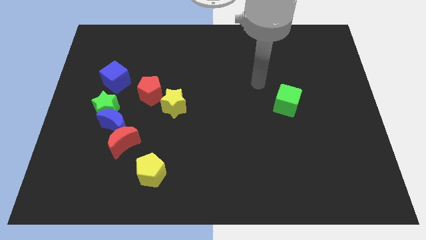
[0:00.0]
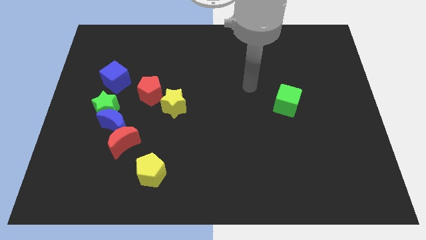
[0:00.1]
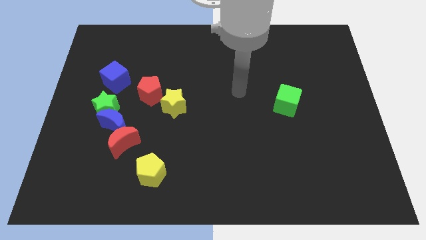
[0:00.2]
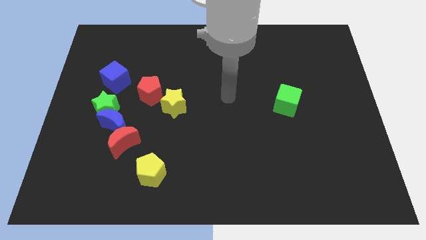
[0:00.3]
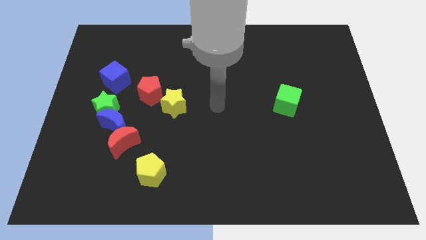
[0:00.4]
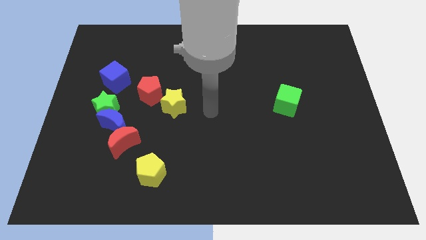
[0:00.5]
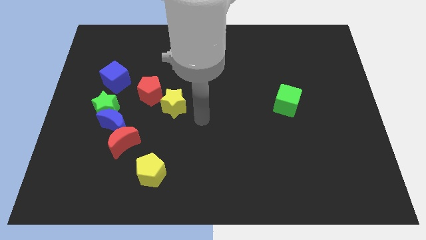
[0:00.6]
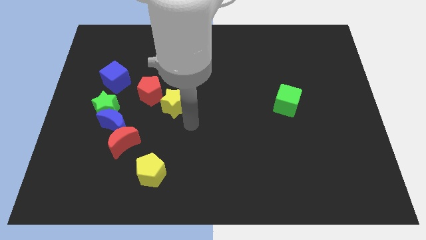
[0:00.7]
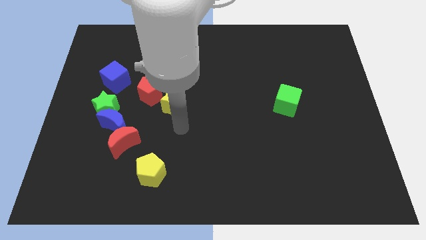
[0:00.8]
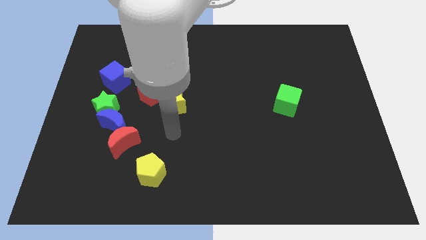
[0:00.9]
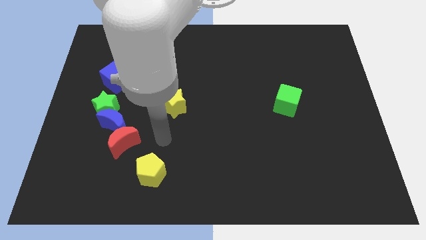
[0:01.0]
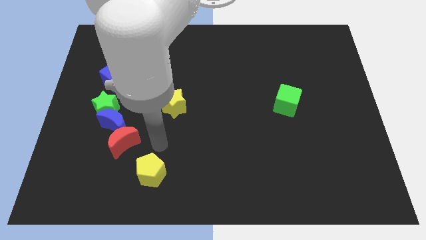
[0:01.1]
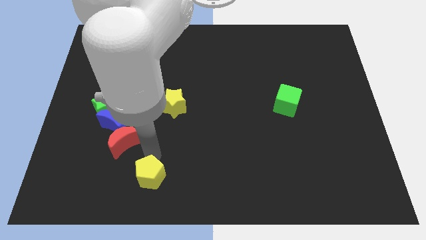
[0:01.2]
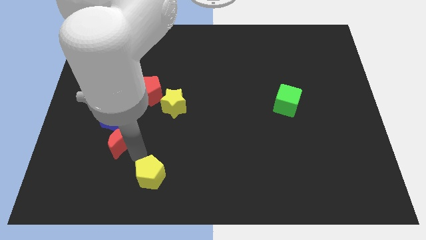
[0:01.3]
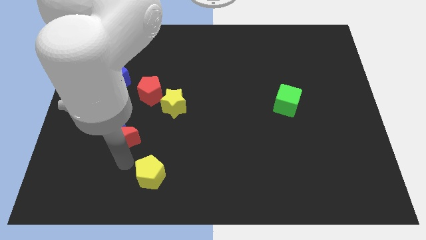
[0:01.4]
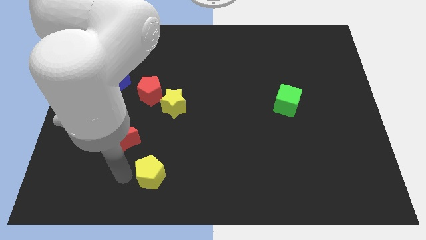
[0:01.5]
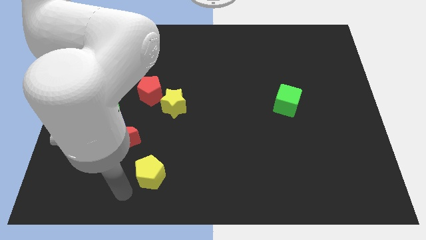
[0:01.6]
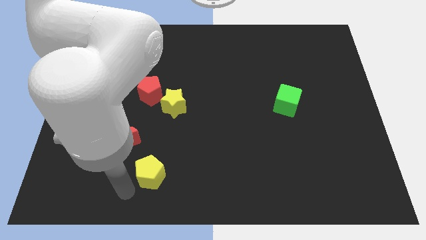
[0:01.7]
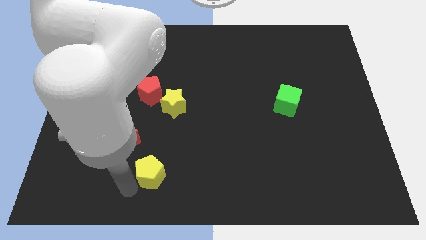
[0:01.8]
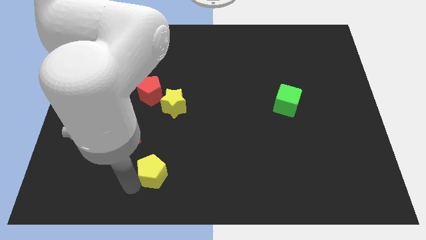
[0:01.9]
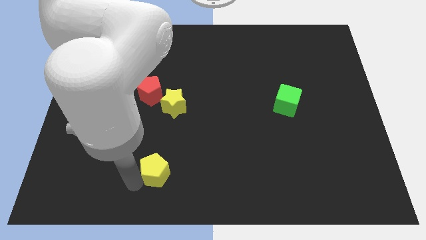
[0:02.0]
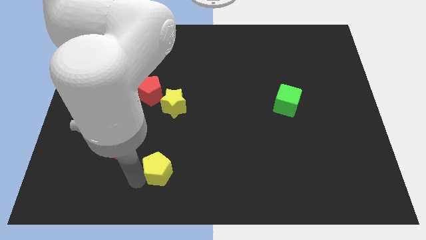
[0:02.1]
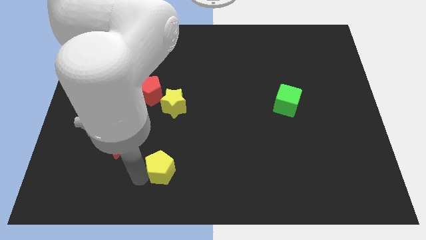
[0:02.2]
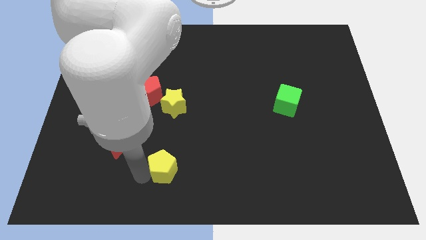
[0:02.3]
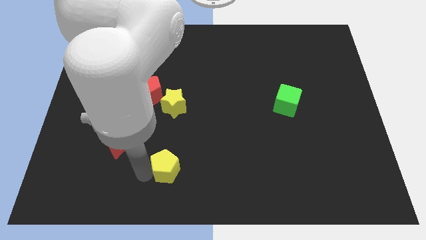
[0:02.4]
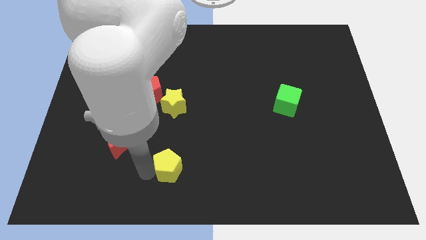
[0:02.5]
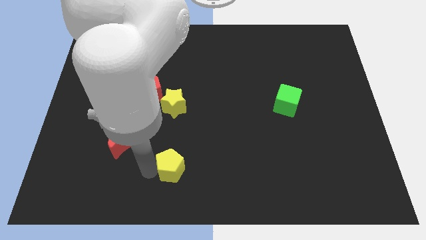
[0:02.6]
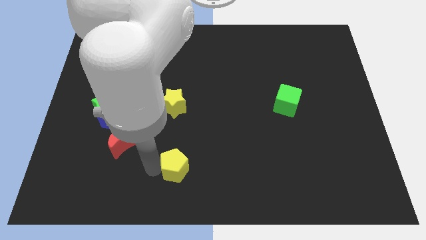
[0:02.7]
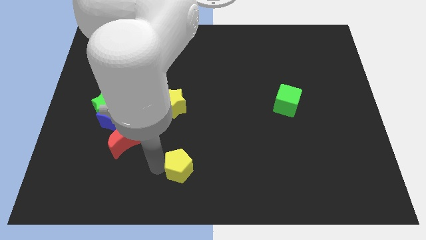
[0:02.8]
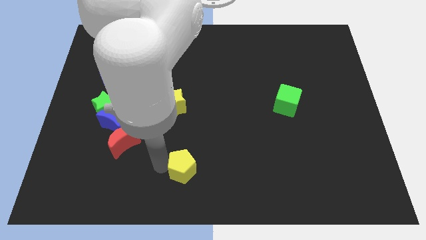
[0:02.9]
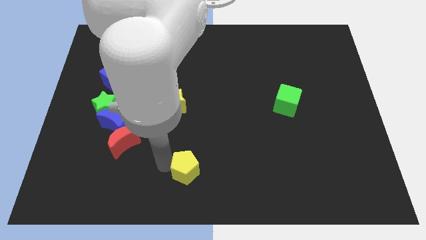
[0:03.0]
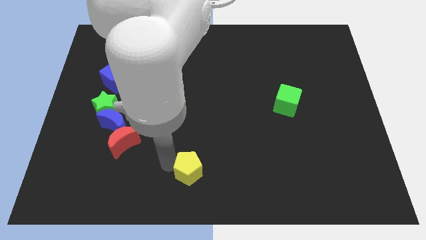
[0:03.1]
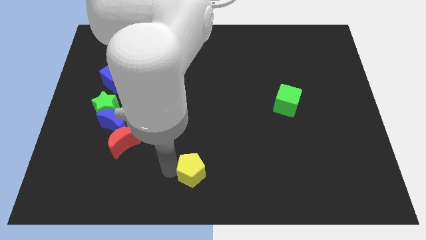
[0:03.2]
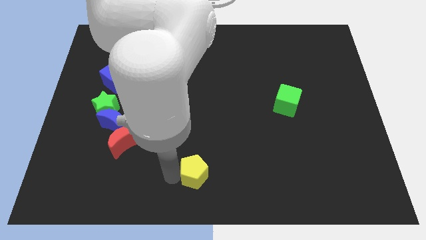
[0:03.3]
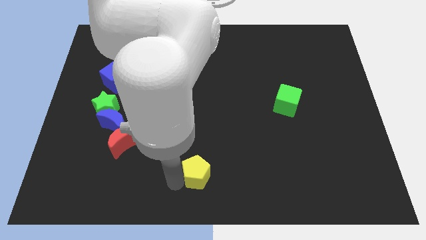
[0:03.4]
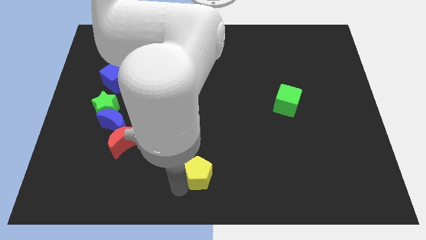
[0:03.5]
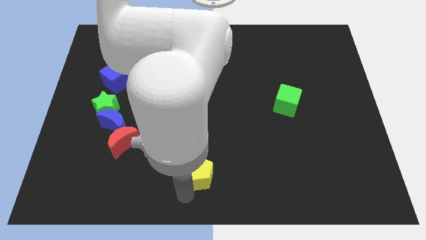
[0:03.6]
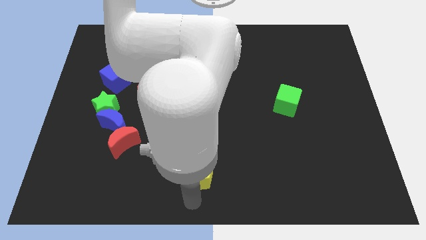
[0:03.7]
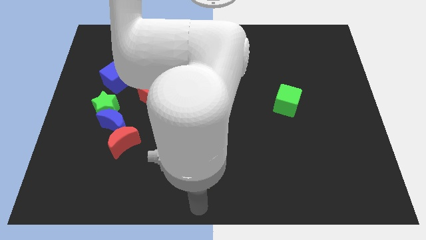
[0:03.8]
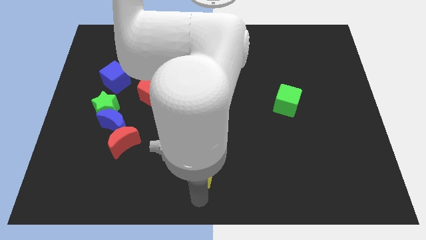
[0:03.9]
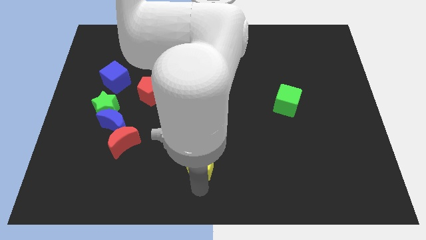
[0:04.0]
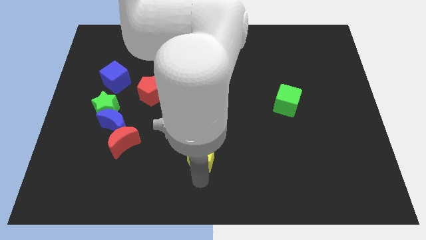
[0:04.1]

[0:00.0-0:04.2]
slide the yellow pentagon a little bit up and then right

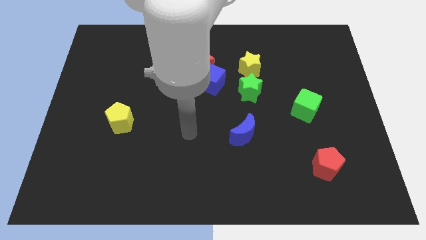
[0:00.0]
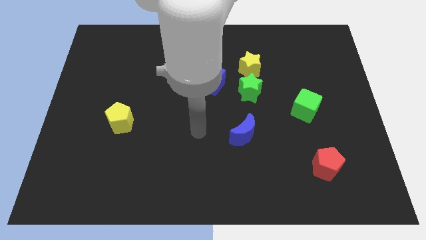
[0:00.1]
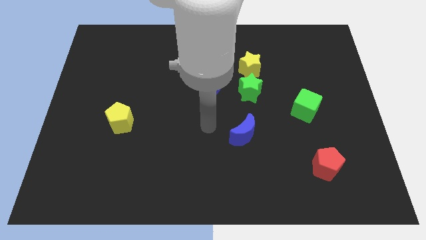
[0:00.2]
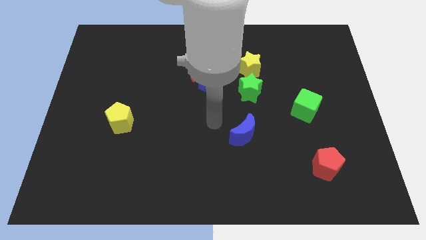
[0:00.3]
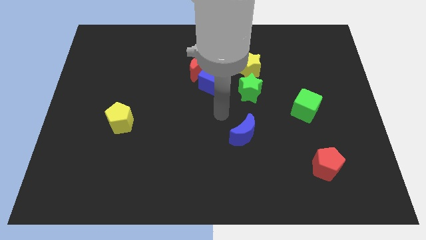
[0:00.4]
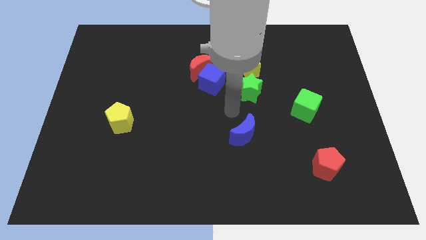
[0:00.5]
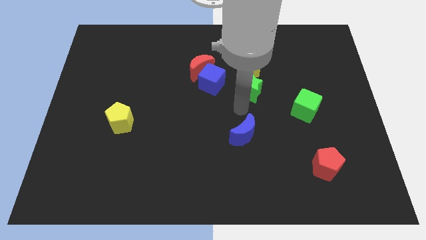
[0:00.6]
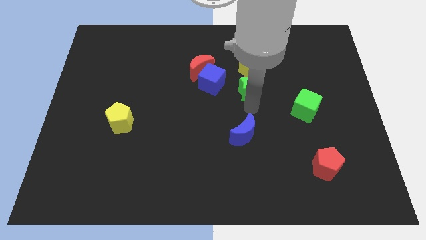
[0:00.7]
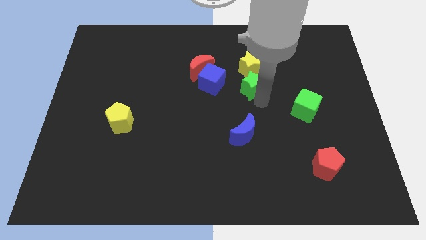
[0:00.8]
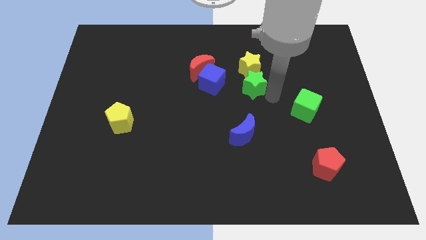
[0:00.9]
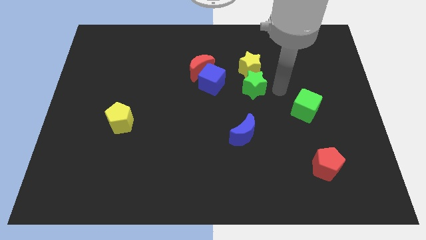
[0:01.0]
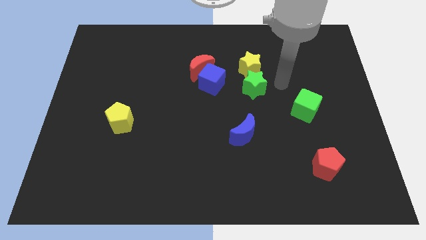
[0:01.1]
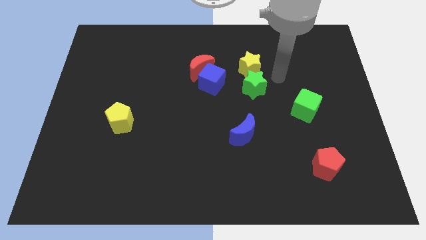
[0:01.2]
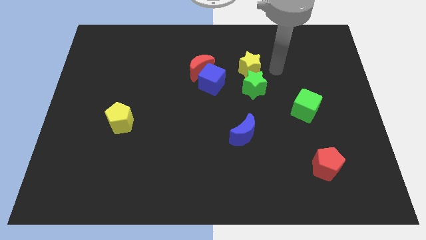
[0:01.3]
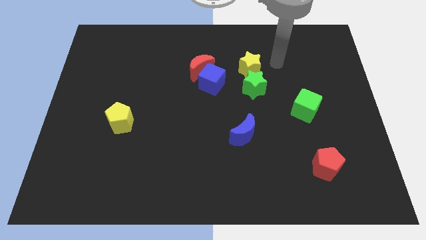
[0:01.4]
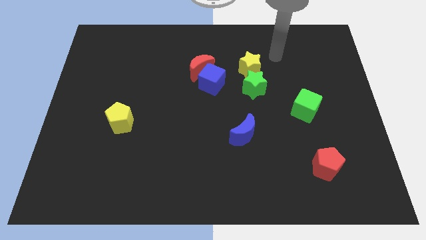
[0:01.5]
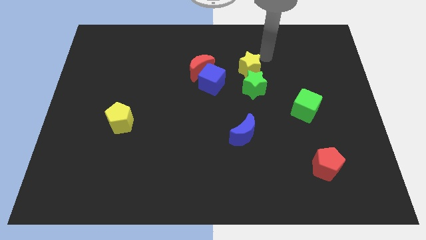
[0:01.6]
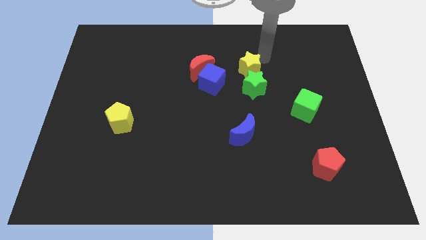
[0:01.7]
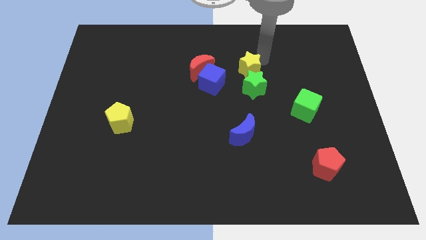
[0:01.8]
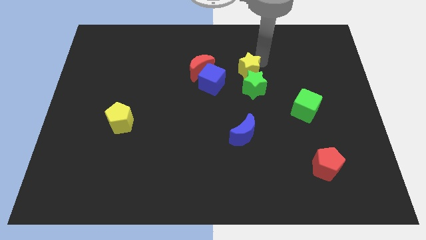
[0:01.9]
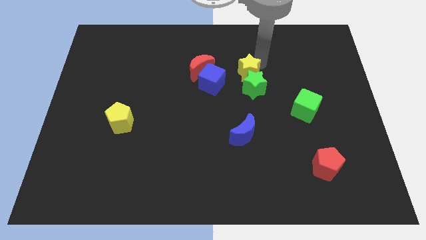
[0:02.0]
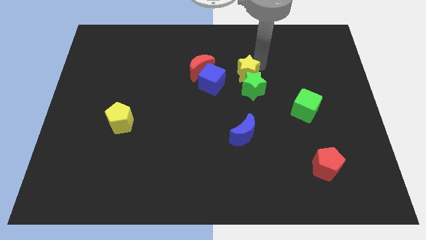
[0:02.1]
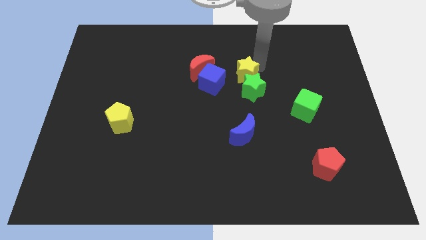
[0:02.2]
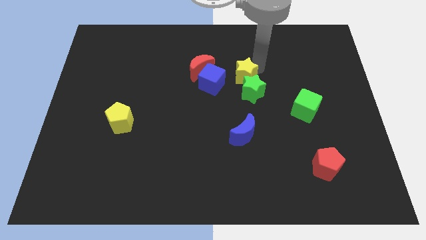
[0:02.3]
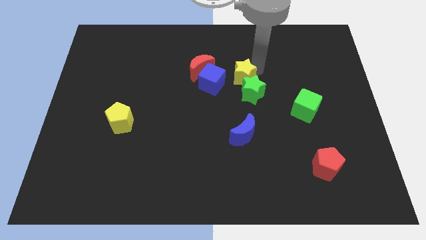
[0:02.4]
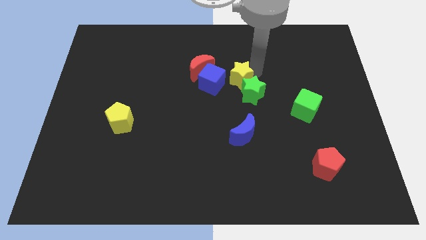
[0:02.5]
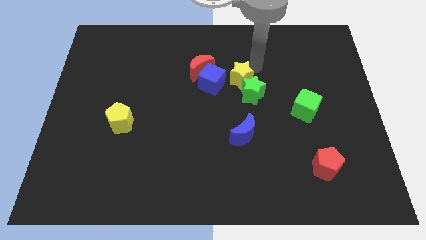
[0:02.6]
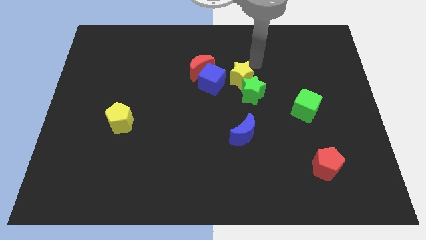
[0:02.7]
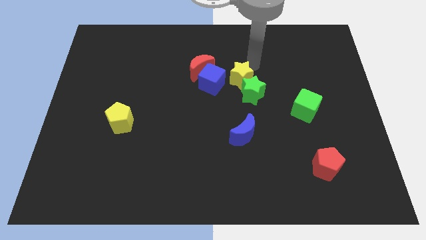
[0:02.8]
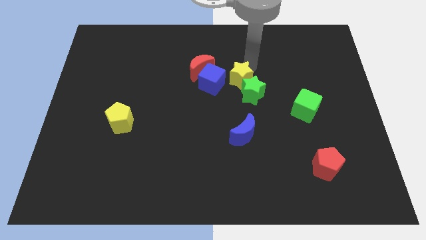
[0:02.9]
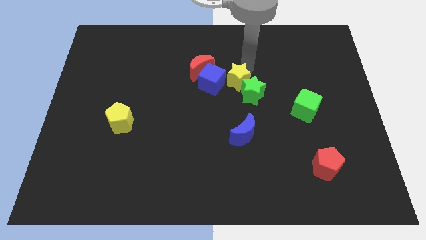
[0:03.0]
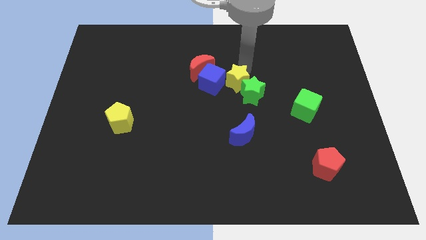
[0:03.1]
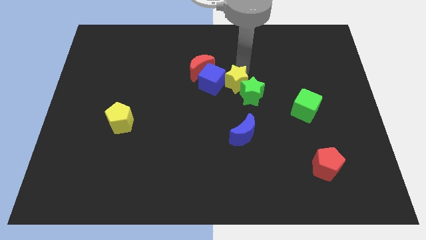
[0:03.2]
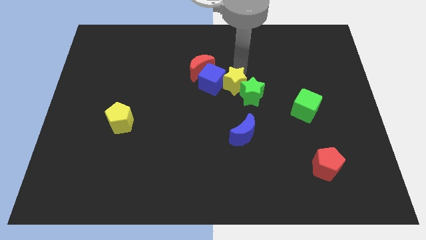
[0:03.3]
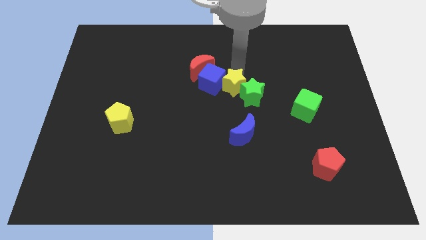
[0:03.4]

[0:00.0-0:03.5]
move the yellow star a little downwards and then to the left

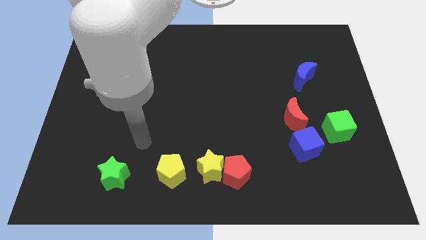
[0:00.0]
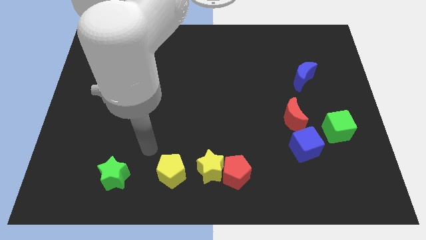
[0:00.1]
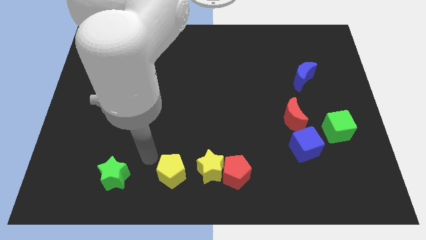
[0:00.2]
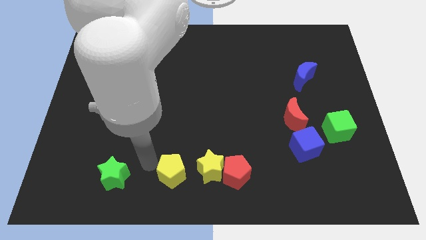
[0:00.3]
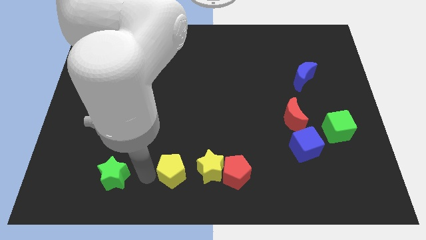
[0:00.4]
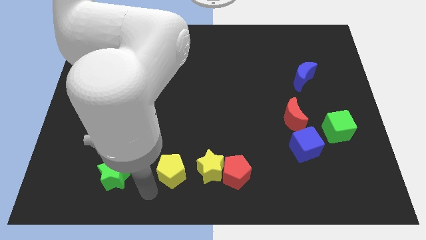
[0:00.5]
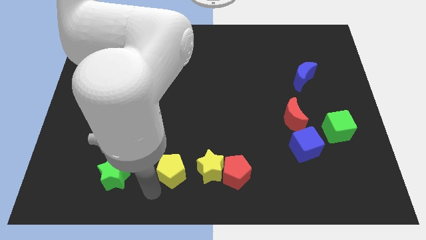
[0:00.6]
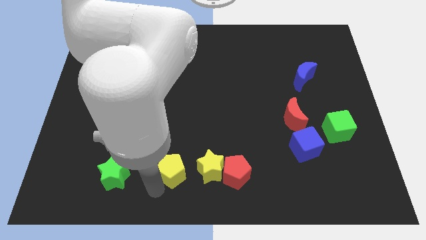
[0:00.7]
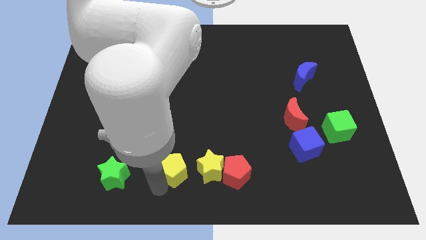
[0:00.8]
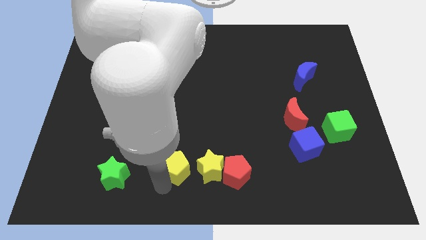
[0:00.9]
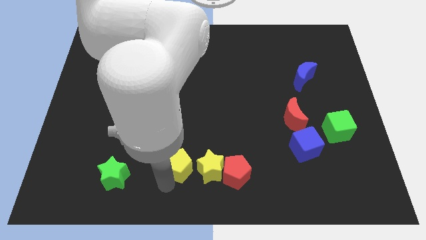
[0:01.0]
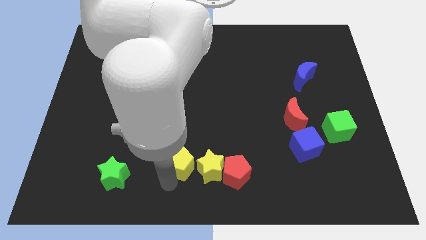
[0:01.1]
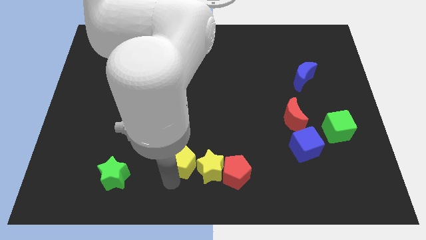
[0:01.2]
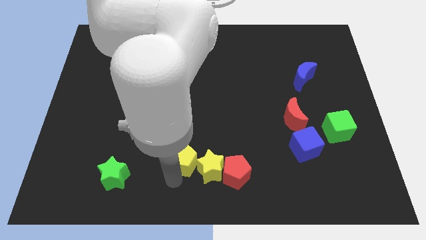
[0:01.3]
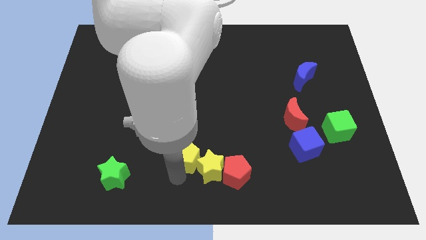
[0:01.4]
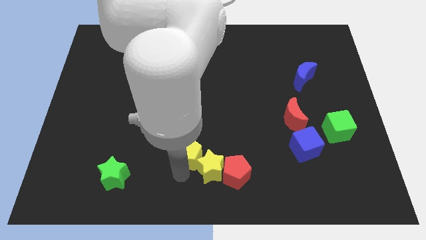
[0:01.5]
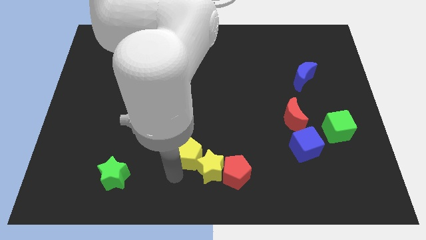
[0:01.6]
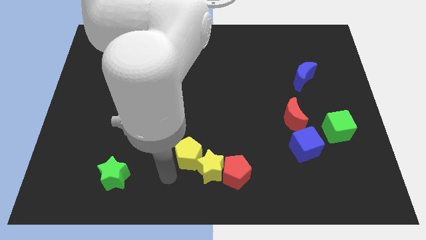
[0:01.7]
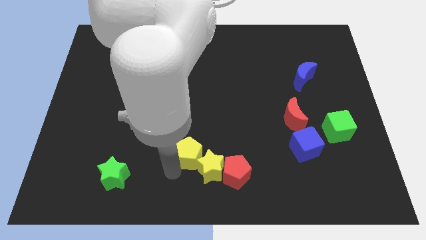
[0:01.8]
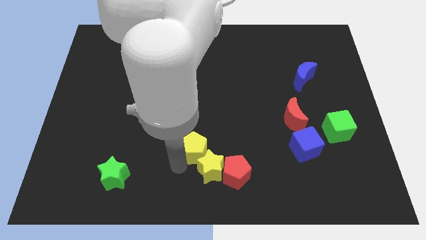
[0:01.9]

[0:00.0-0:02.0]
slide the yellow pentagon slightly up and right
